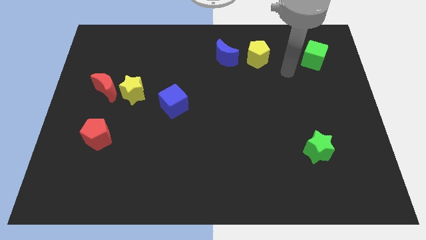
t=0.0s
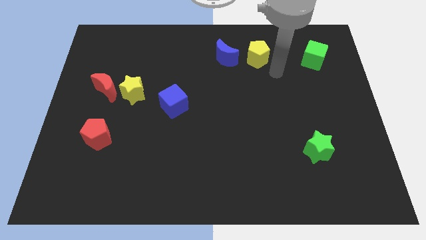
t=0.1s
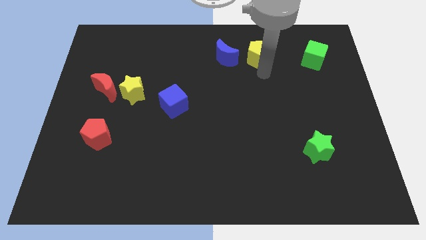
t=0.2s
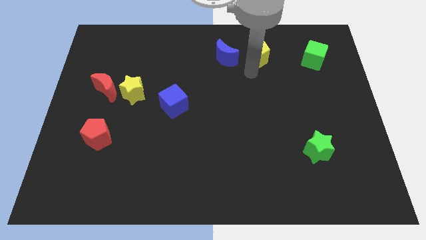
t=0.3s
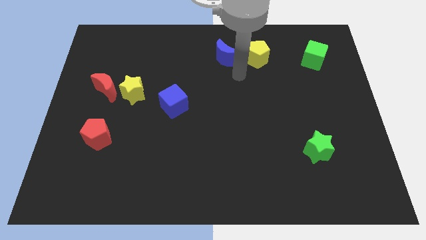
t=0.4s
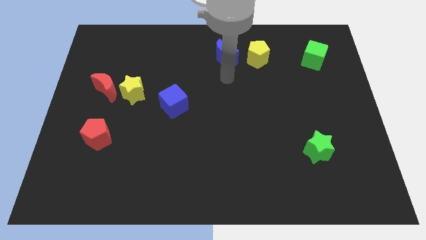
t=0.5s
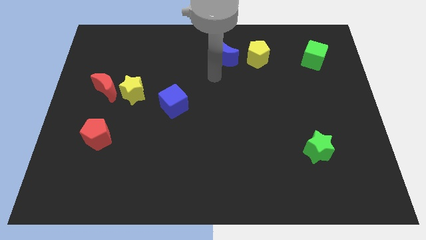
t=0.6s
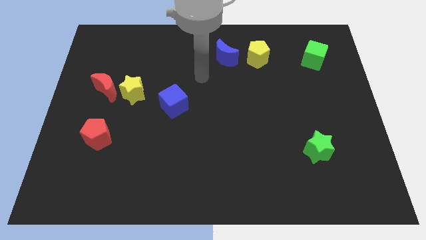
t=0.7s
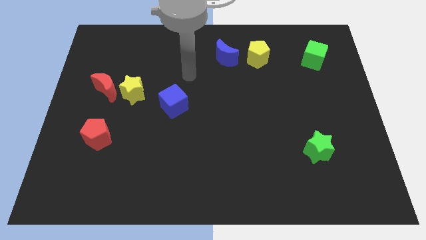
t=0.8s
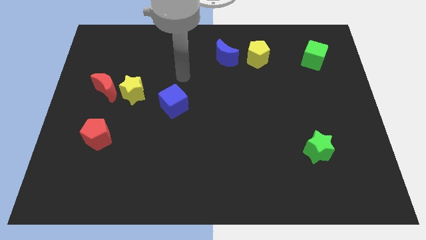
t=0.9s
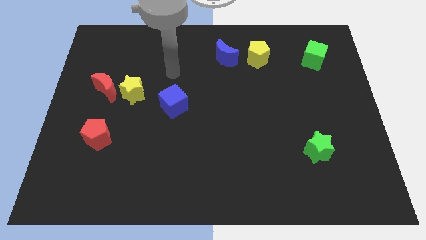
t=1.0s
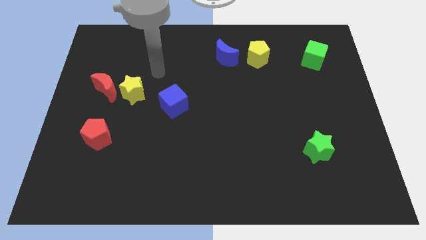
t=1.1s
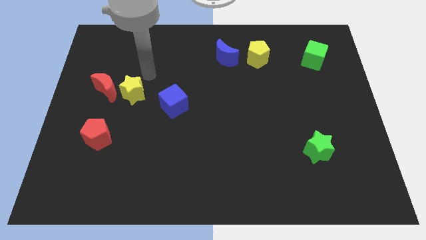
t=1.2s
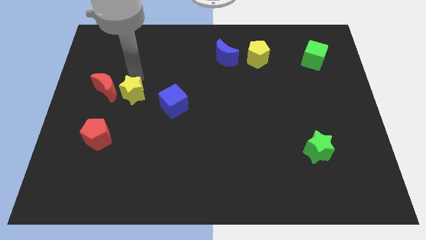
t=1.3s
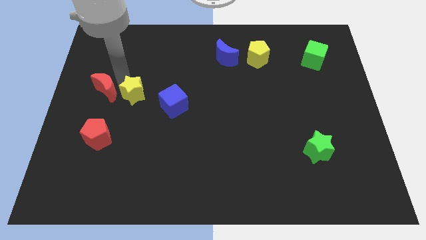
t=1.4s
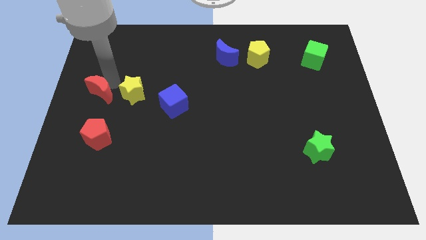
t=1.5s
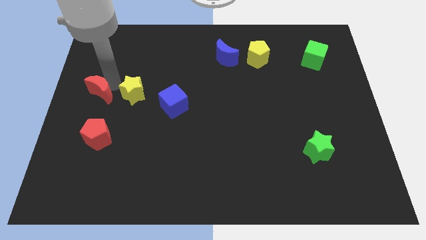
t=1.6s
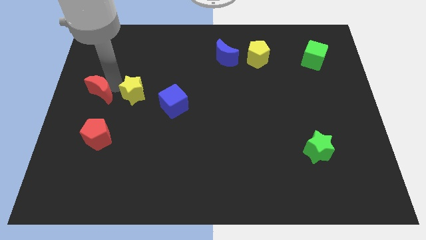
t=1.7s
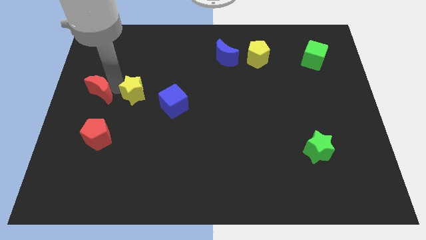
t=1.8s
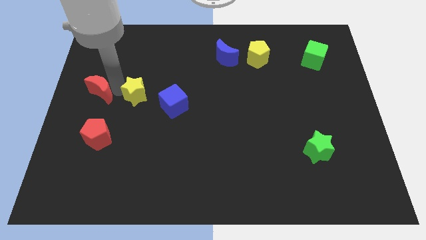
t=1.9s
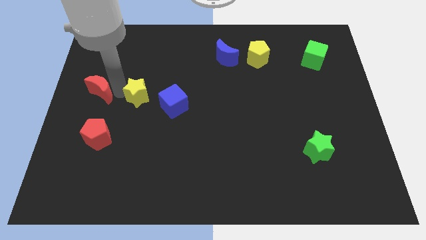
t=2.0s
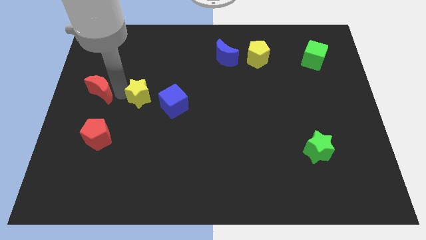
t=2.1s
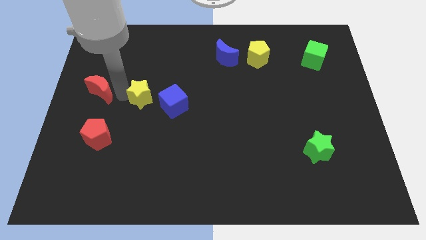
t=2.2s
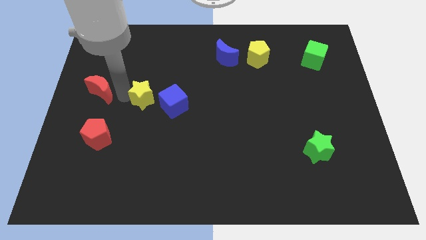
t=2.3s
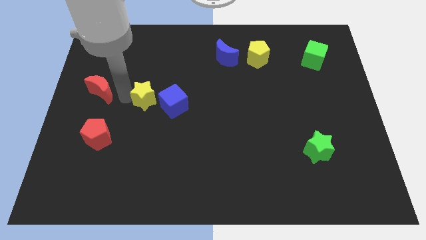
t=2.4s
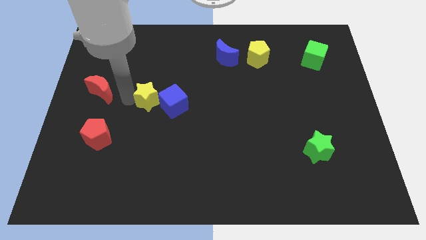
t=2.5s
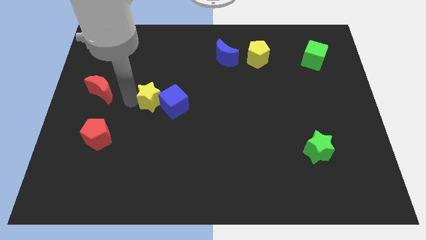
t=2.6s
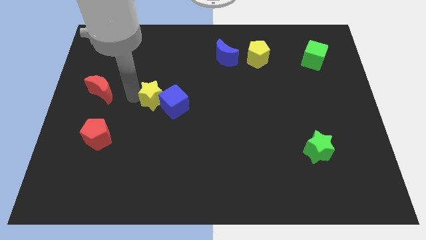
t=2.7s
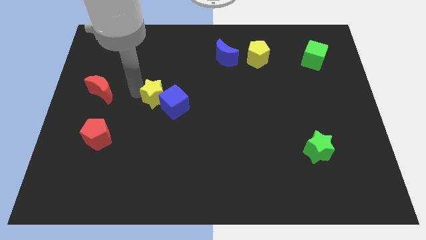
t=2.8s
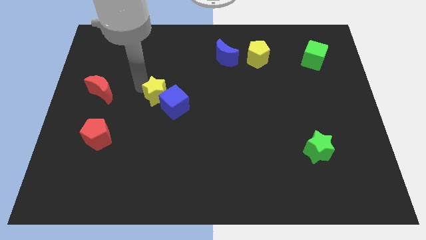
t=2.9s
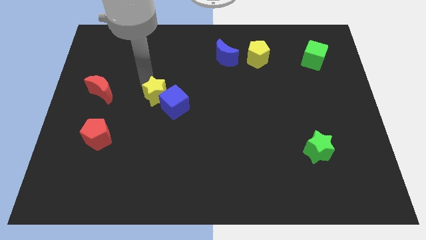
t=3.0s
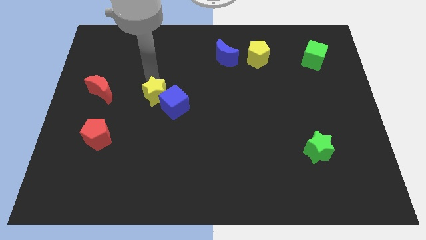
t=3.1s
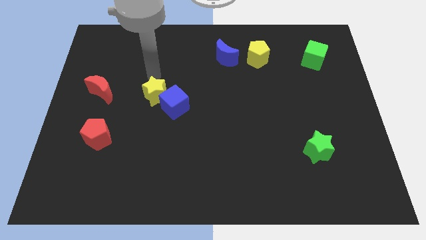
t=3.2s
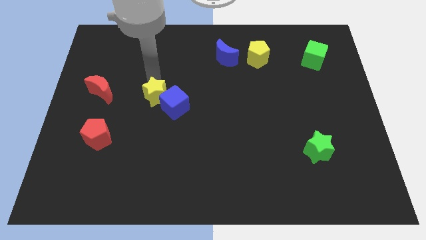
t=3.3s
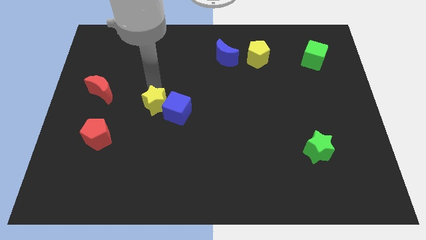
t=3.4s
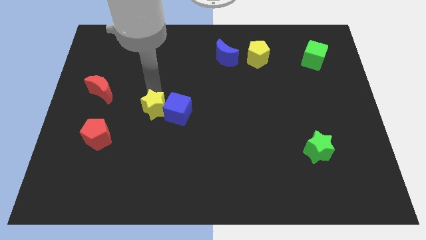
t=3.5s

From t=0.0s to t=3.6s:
slightly slide the yellow star downwards and then to the right

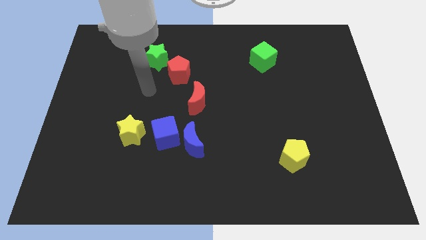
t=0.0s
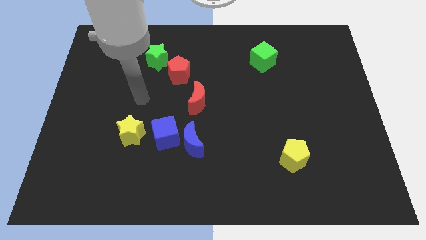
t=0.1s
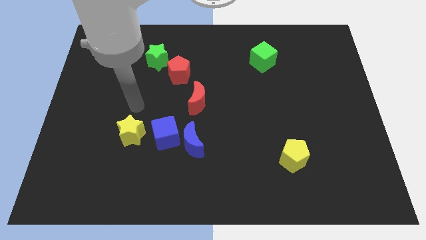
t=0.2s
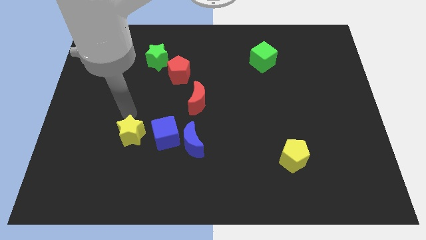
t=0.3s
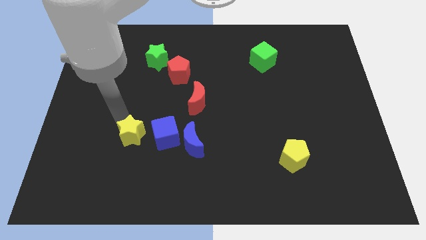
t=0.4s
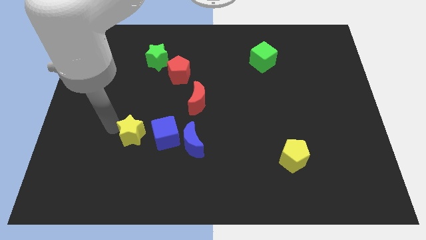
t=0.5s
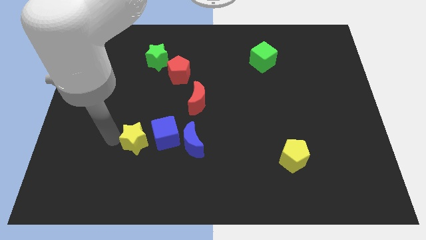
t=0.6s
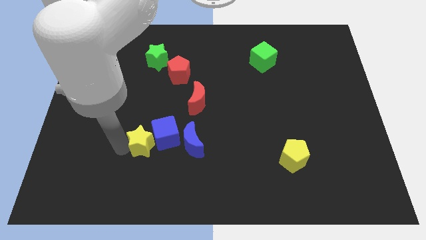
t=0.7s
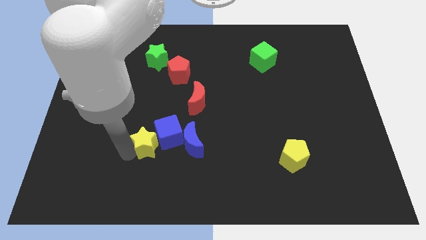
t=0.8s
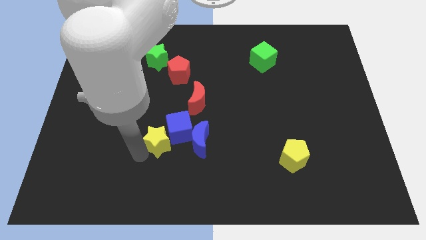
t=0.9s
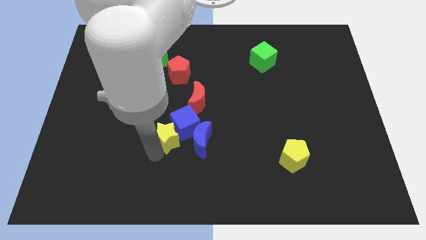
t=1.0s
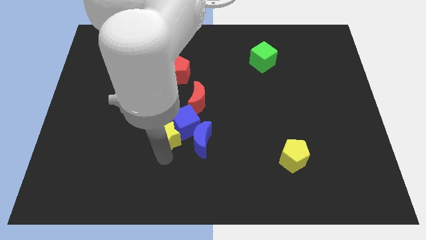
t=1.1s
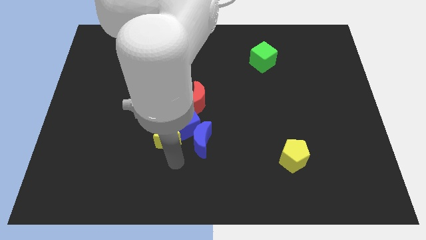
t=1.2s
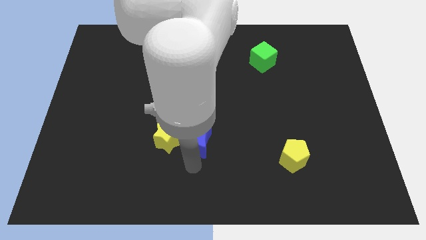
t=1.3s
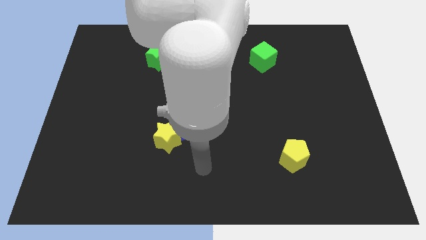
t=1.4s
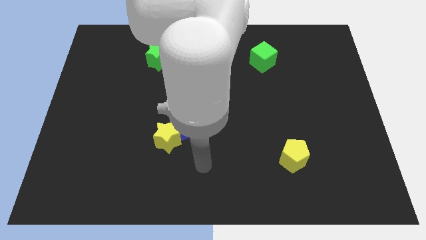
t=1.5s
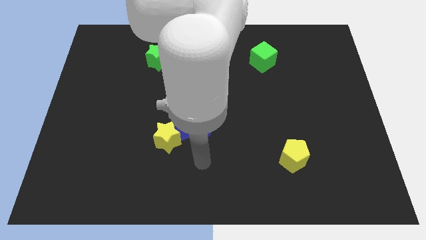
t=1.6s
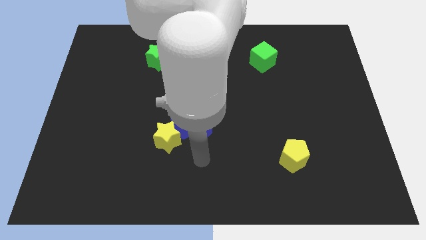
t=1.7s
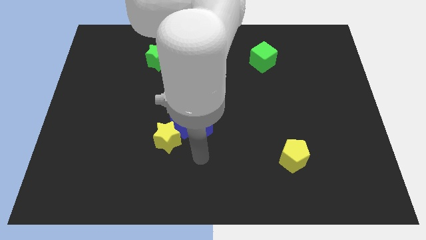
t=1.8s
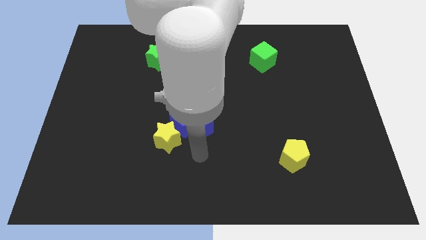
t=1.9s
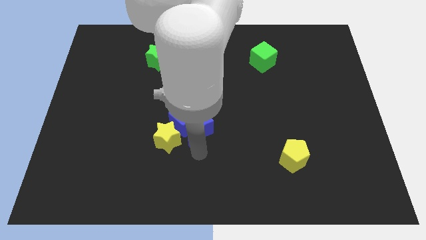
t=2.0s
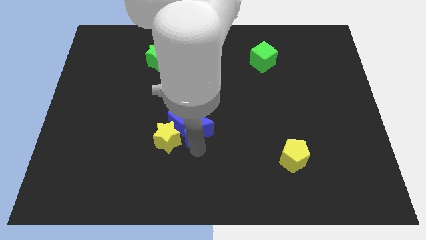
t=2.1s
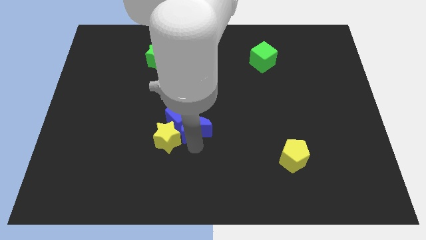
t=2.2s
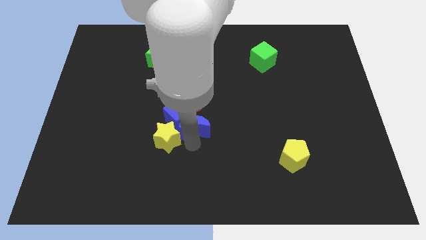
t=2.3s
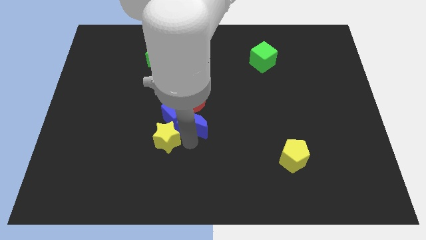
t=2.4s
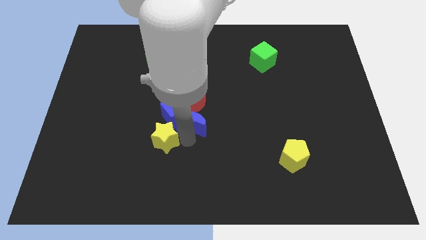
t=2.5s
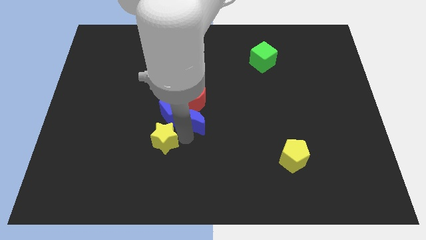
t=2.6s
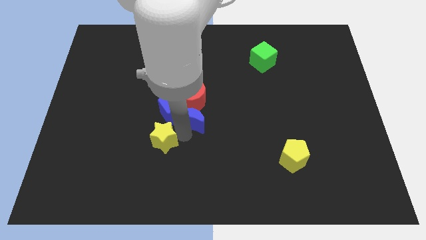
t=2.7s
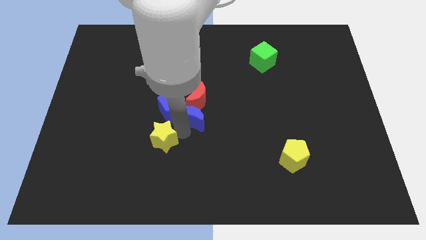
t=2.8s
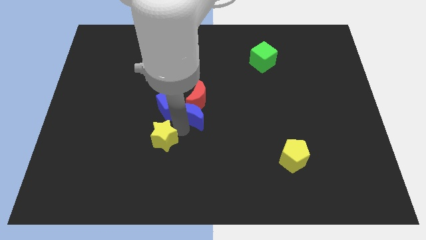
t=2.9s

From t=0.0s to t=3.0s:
push the blue moon up a little bit

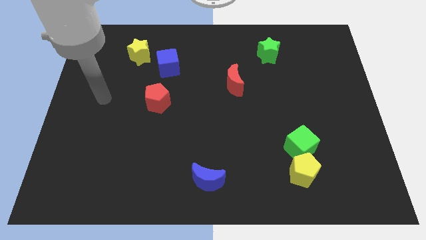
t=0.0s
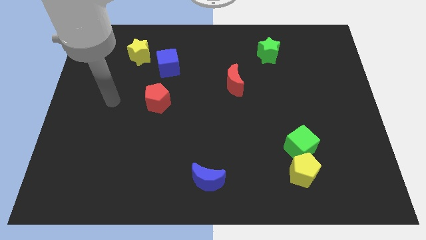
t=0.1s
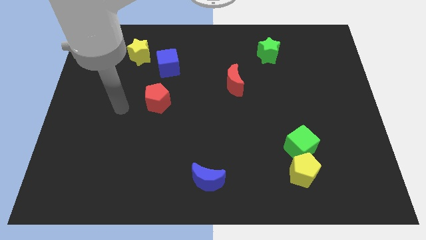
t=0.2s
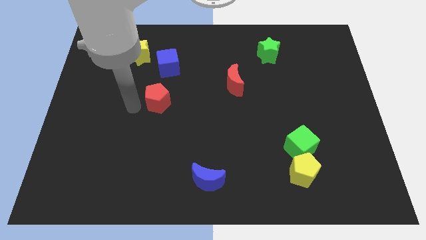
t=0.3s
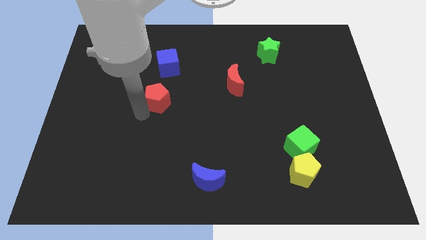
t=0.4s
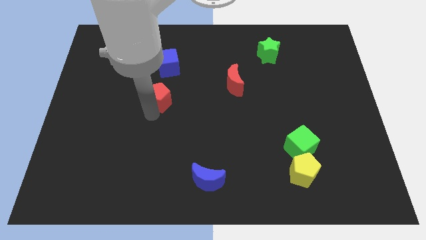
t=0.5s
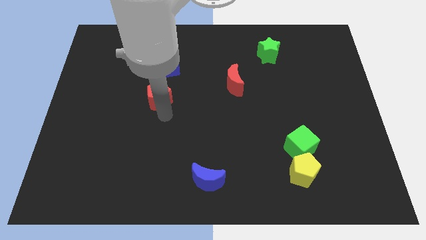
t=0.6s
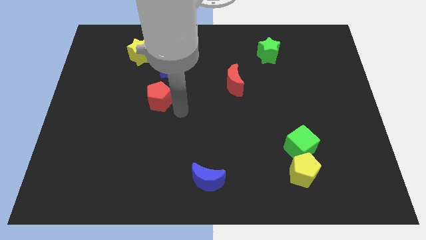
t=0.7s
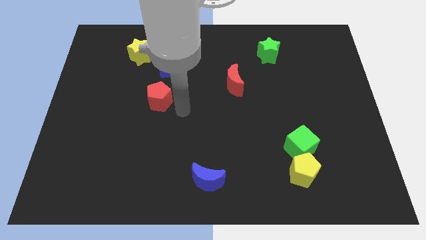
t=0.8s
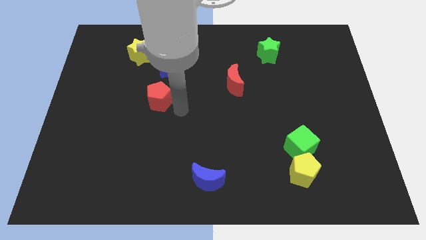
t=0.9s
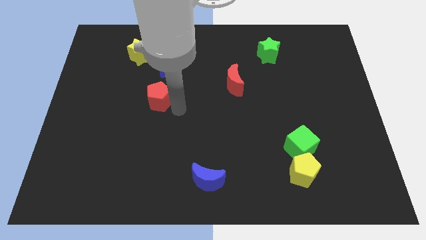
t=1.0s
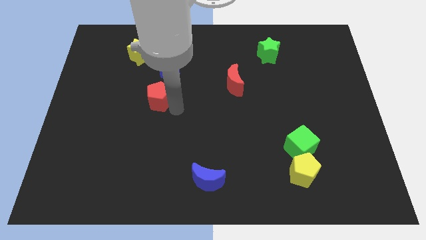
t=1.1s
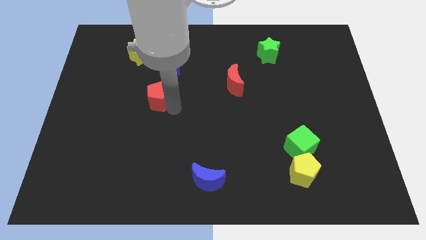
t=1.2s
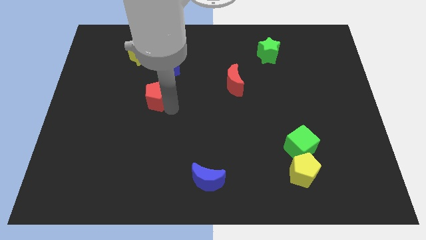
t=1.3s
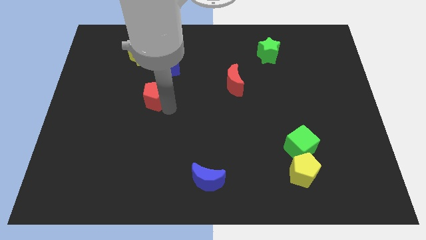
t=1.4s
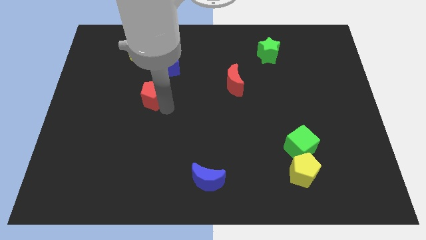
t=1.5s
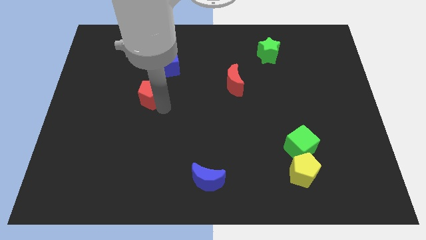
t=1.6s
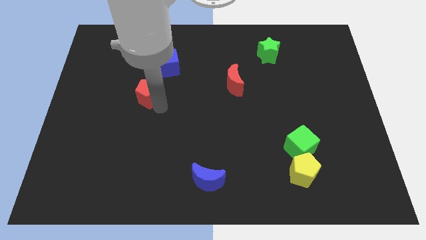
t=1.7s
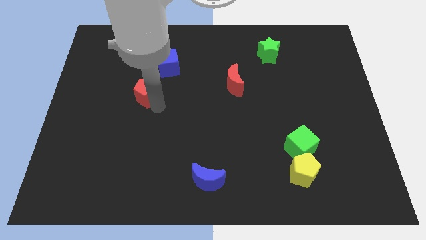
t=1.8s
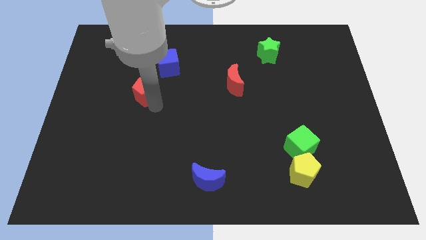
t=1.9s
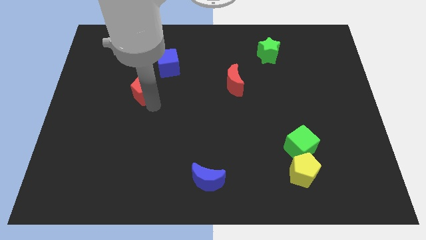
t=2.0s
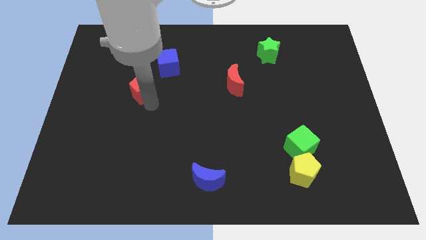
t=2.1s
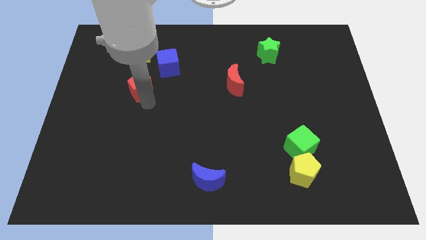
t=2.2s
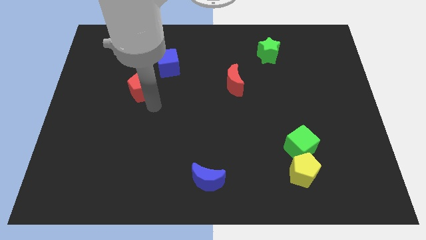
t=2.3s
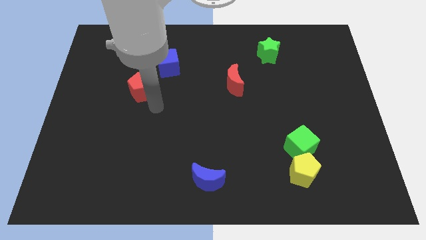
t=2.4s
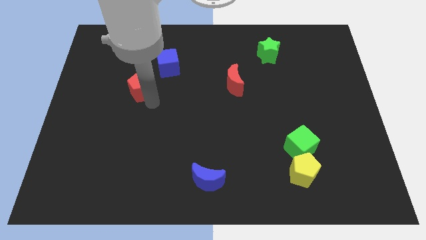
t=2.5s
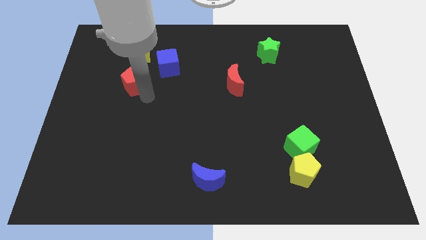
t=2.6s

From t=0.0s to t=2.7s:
move the red pentagon somewhat up and then left
